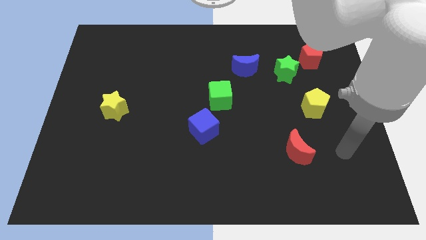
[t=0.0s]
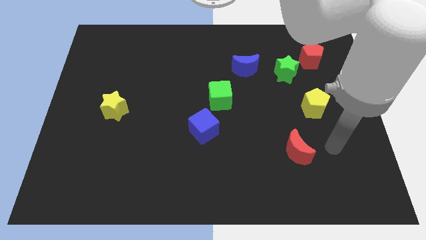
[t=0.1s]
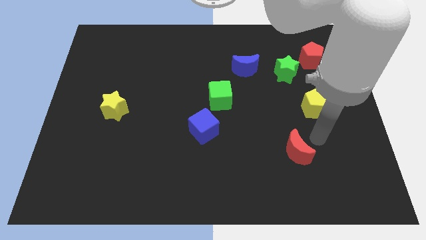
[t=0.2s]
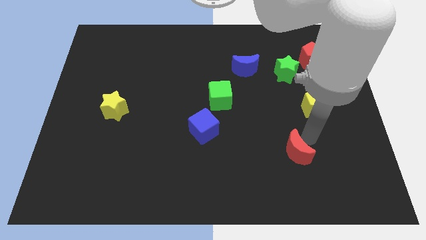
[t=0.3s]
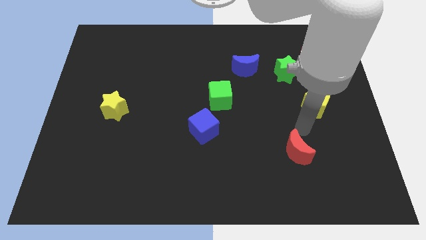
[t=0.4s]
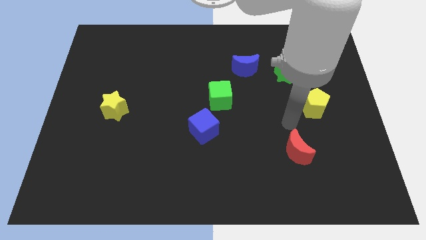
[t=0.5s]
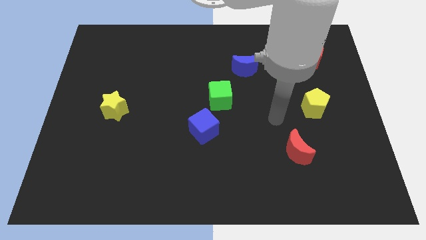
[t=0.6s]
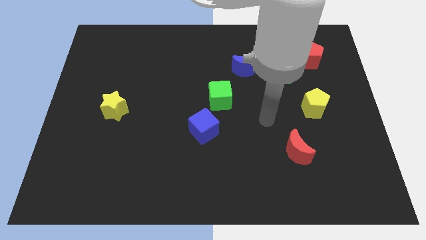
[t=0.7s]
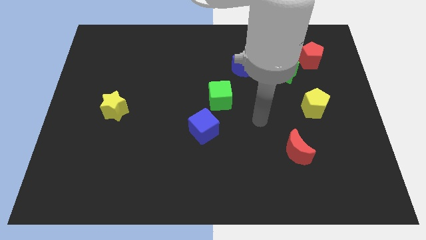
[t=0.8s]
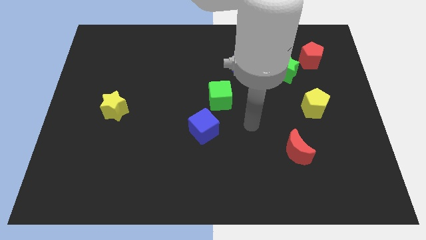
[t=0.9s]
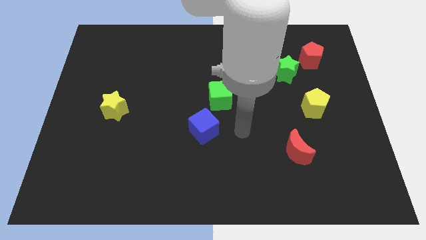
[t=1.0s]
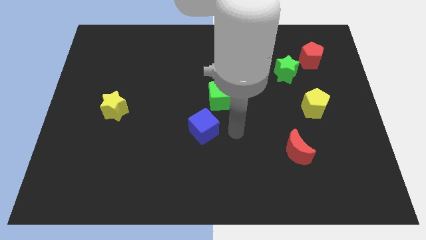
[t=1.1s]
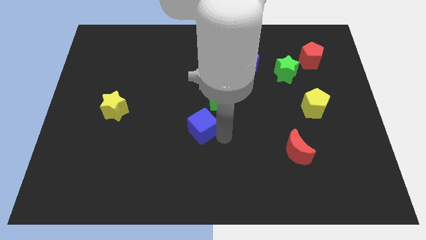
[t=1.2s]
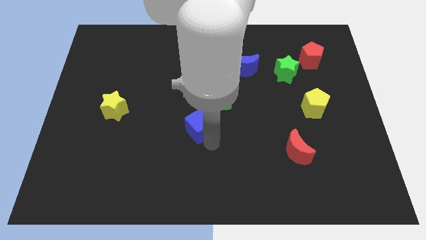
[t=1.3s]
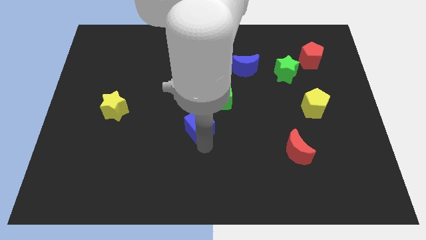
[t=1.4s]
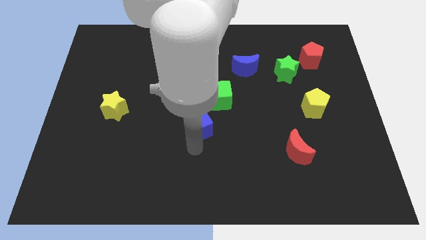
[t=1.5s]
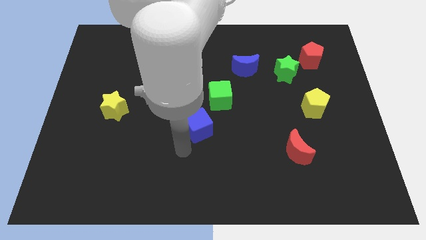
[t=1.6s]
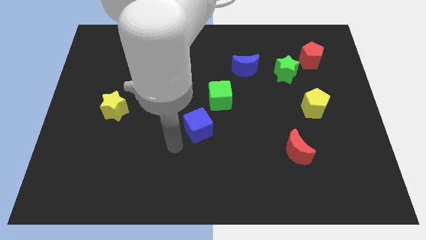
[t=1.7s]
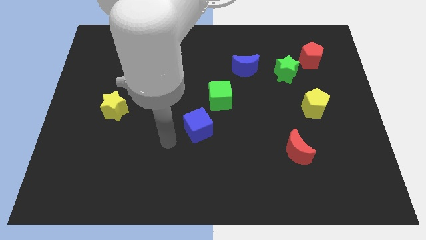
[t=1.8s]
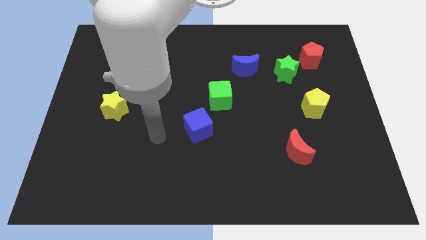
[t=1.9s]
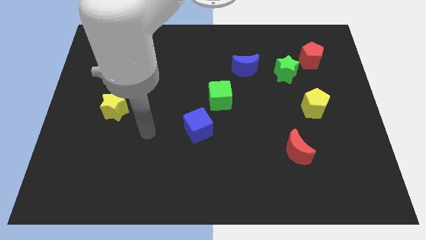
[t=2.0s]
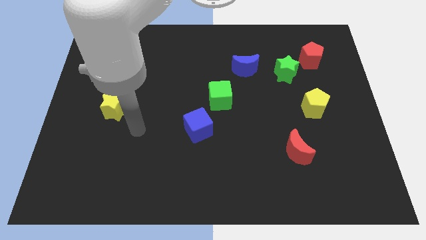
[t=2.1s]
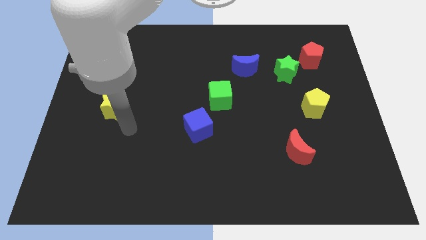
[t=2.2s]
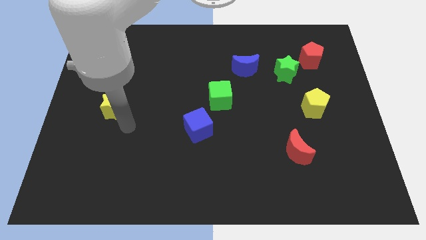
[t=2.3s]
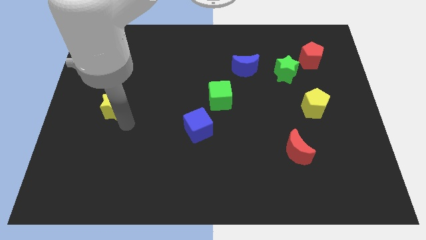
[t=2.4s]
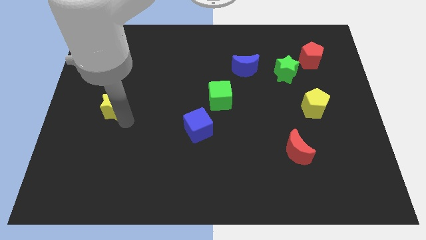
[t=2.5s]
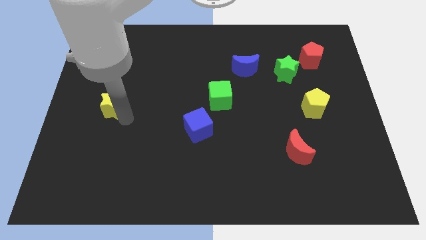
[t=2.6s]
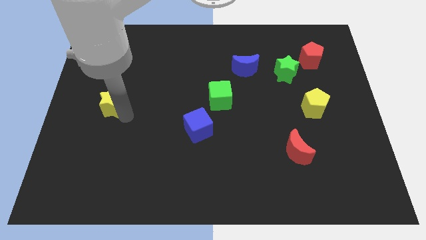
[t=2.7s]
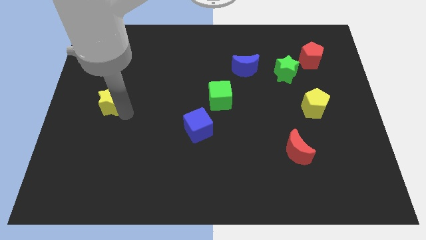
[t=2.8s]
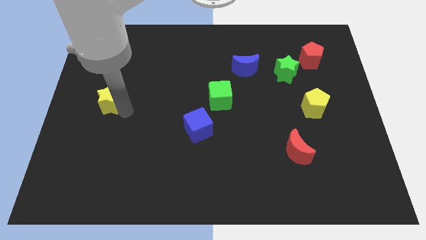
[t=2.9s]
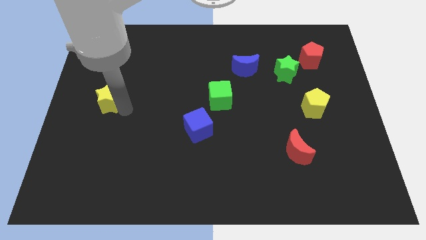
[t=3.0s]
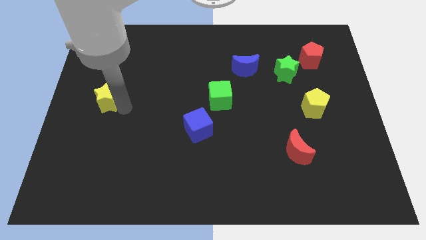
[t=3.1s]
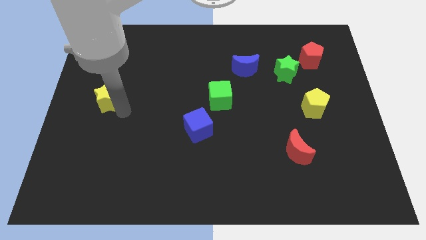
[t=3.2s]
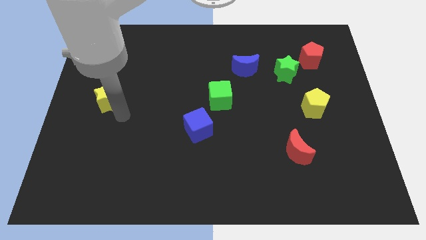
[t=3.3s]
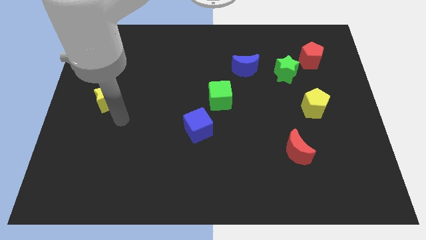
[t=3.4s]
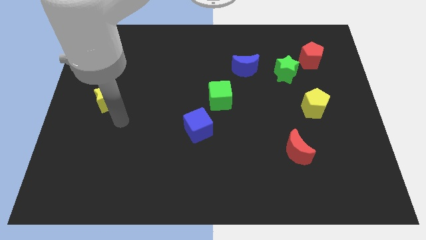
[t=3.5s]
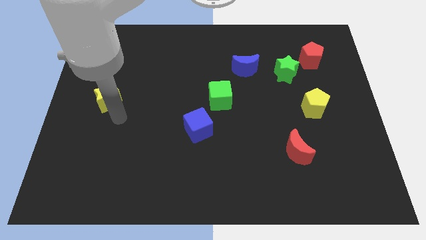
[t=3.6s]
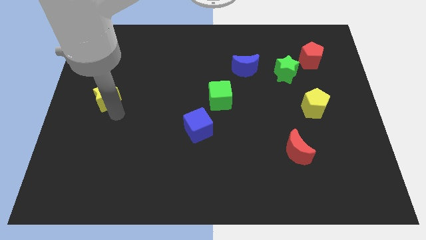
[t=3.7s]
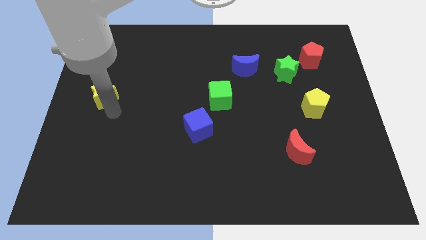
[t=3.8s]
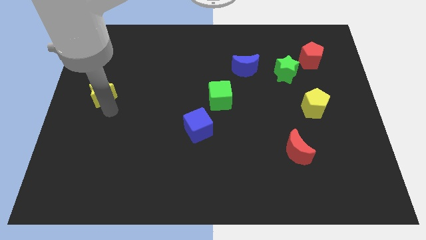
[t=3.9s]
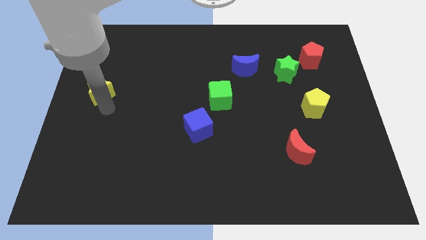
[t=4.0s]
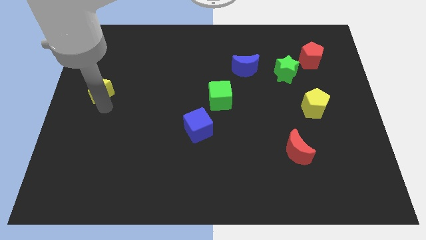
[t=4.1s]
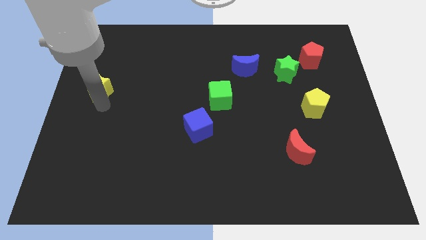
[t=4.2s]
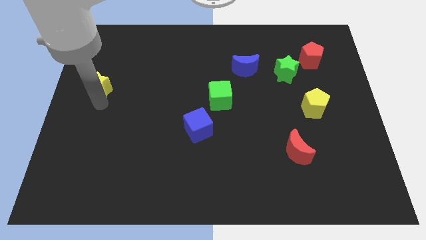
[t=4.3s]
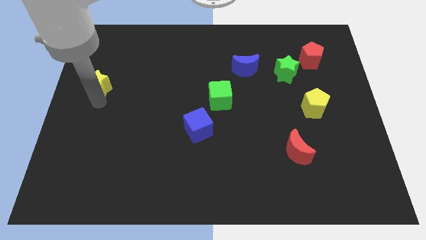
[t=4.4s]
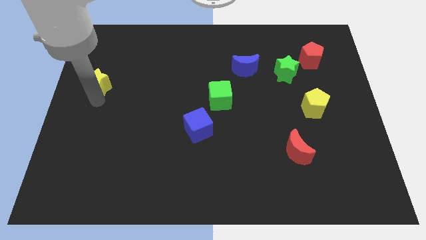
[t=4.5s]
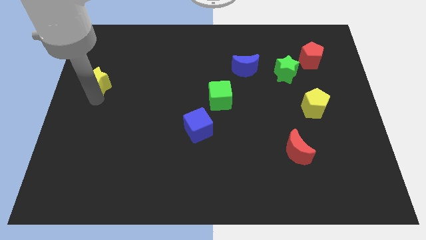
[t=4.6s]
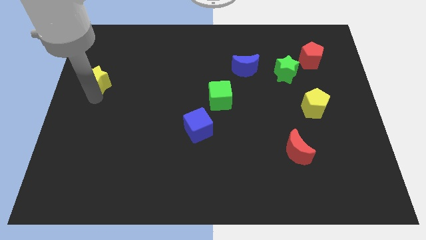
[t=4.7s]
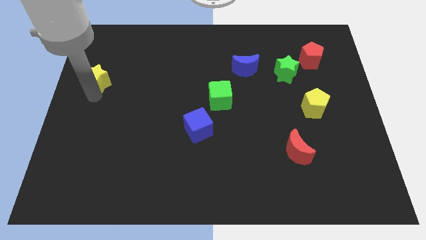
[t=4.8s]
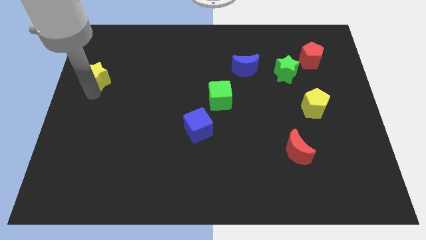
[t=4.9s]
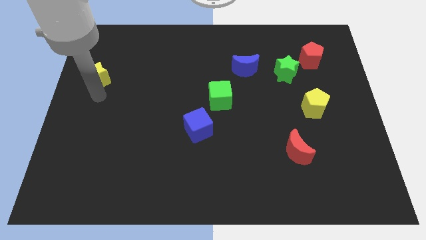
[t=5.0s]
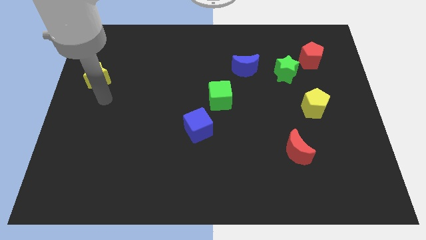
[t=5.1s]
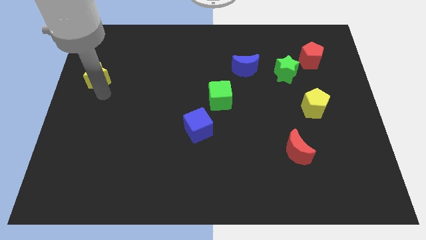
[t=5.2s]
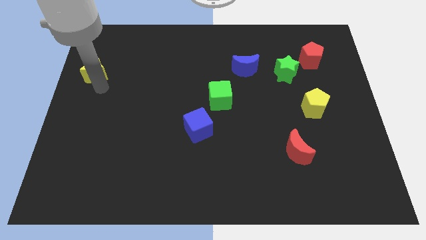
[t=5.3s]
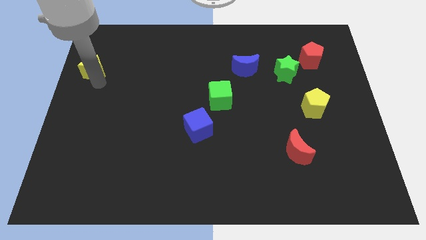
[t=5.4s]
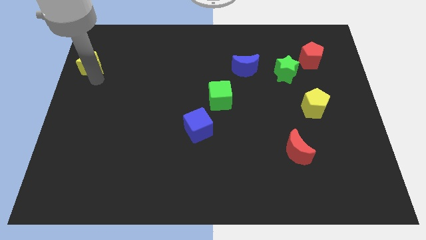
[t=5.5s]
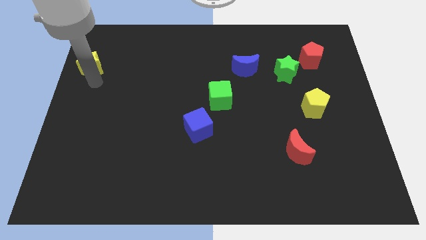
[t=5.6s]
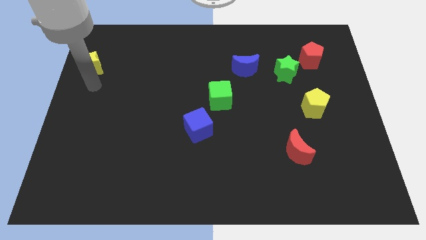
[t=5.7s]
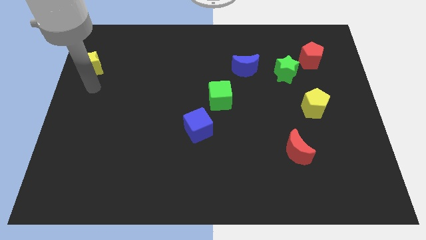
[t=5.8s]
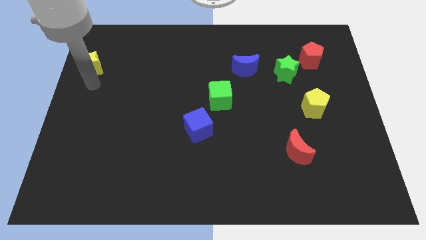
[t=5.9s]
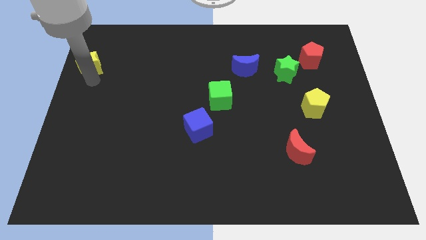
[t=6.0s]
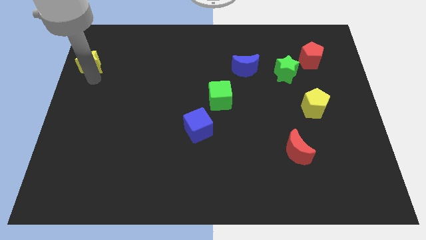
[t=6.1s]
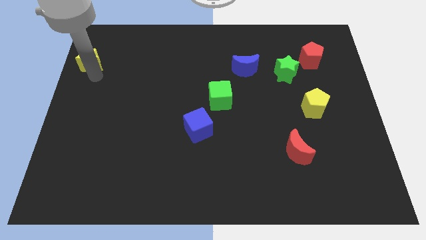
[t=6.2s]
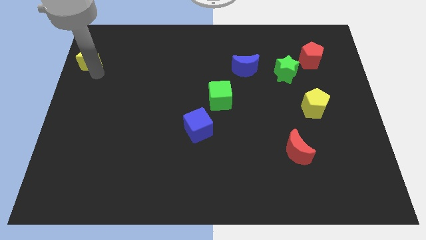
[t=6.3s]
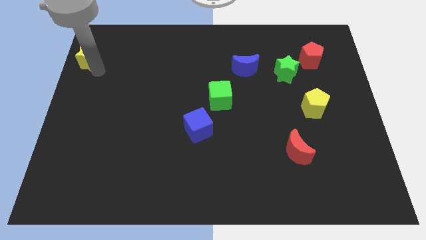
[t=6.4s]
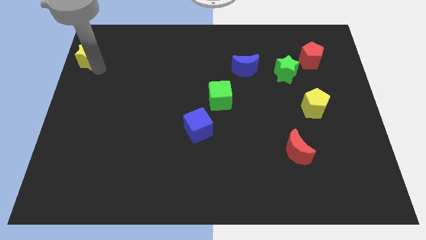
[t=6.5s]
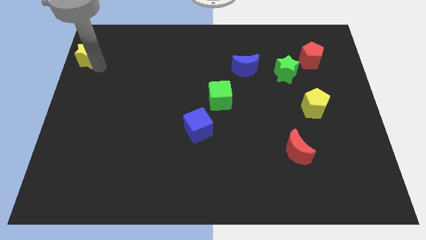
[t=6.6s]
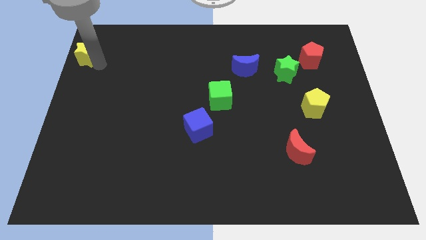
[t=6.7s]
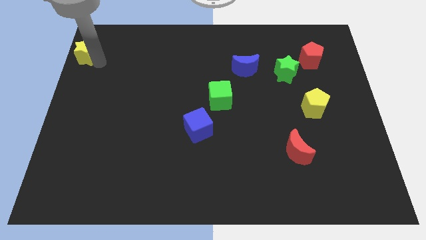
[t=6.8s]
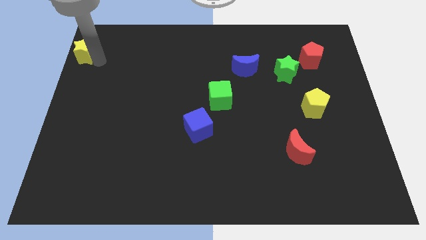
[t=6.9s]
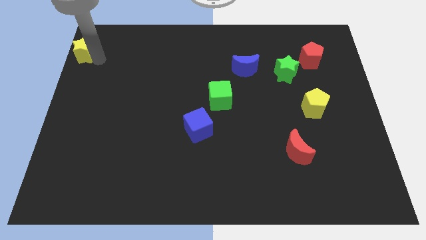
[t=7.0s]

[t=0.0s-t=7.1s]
slide the yellow star to the top left of the board
